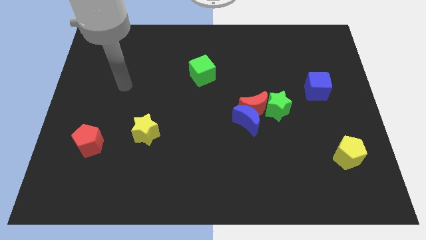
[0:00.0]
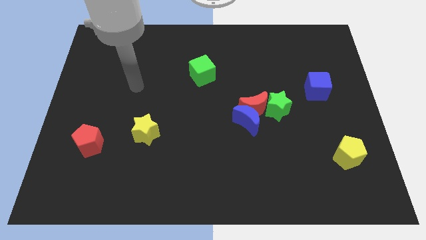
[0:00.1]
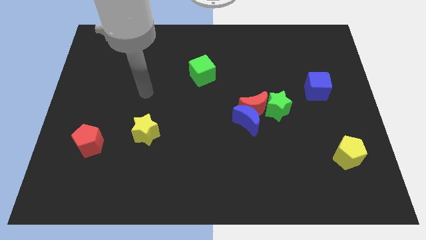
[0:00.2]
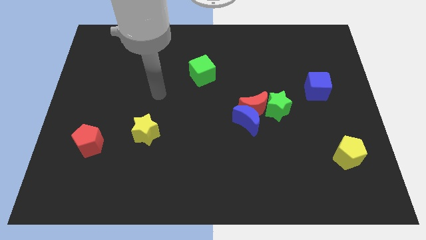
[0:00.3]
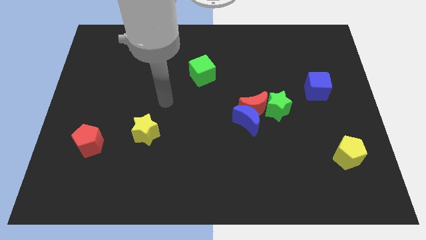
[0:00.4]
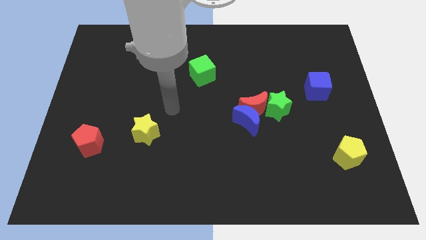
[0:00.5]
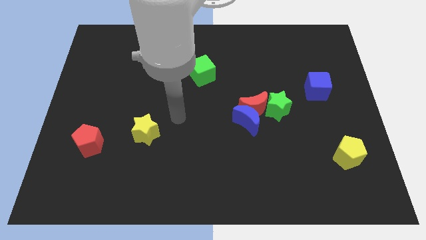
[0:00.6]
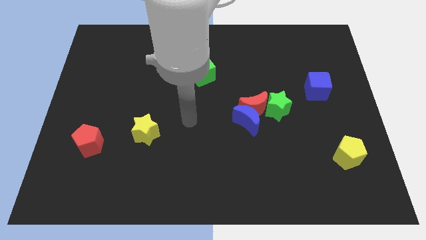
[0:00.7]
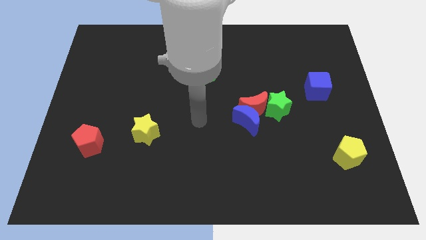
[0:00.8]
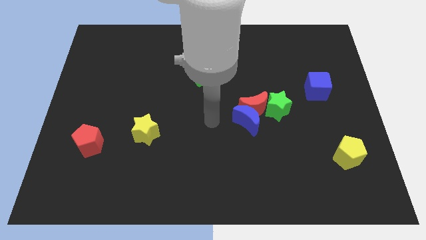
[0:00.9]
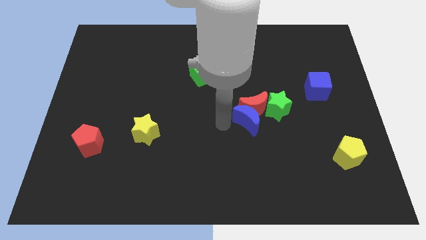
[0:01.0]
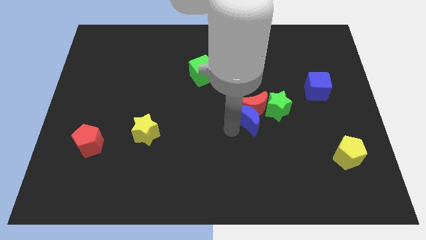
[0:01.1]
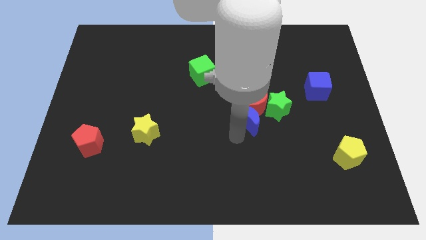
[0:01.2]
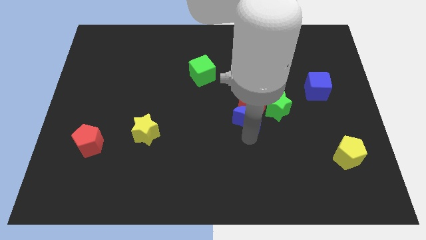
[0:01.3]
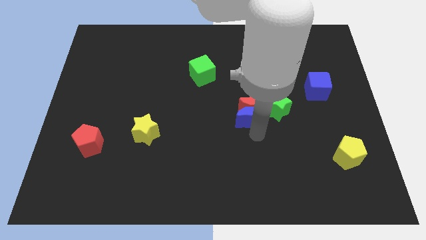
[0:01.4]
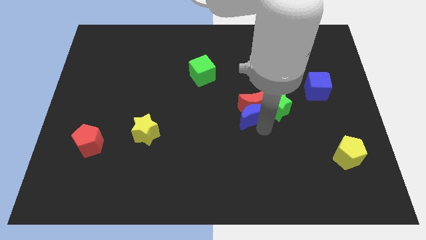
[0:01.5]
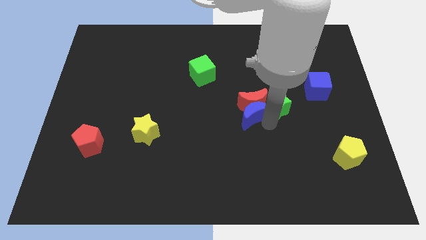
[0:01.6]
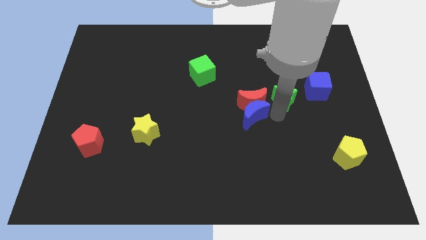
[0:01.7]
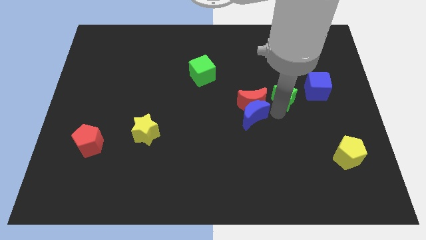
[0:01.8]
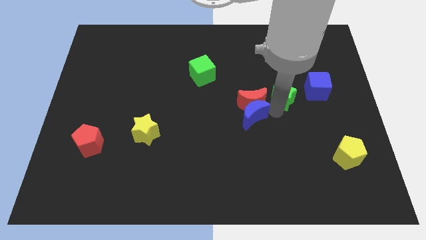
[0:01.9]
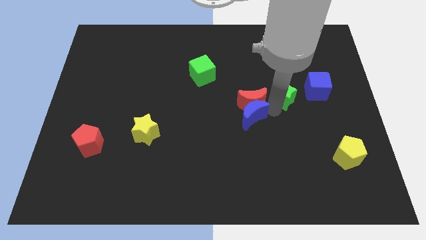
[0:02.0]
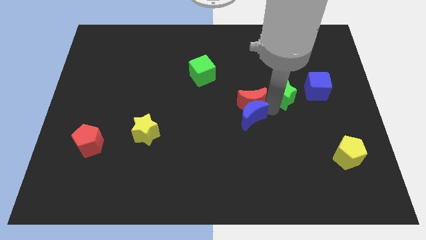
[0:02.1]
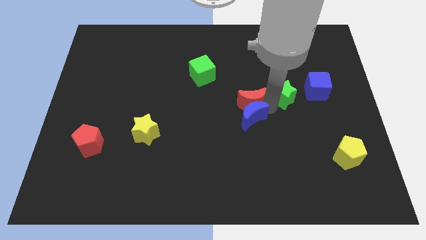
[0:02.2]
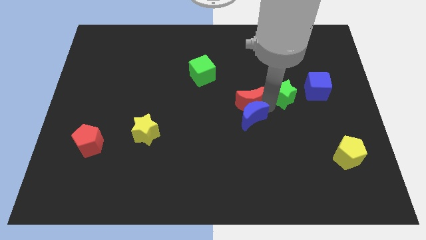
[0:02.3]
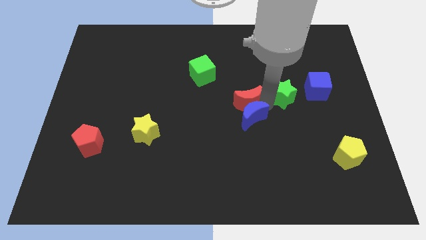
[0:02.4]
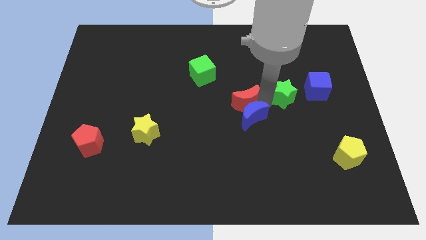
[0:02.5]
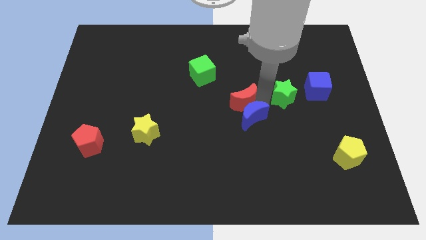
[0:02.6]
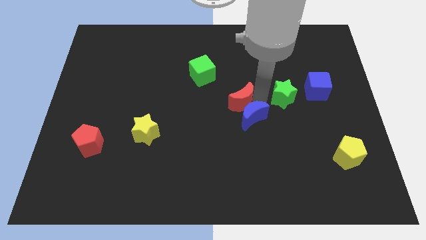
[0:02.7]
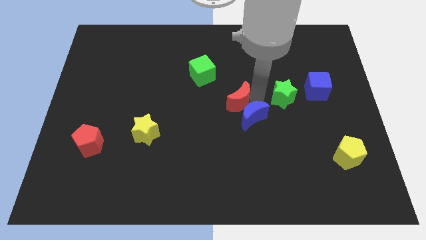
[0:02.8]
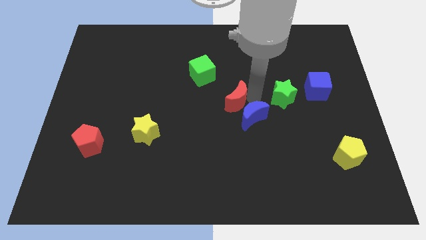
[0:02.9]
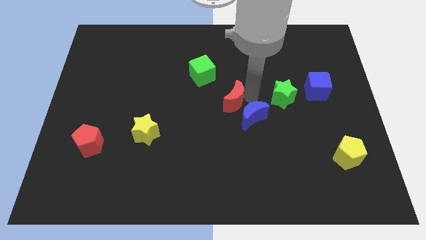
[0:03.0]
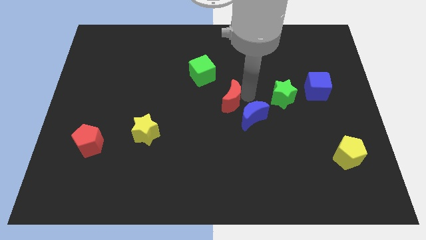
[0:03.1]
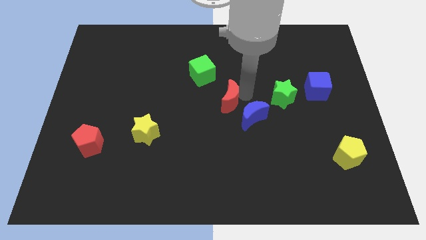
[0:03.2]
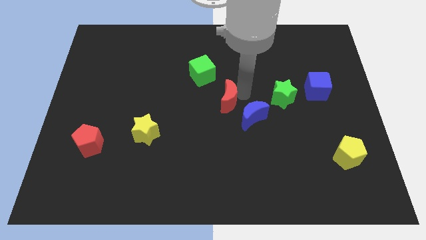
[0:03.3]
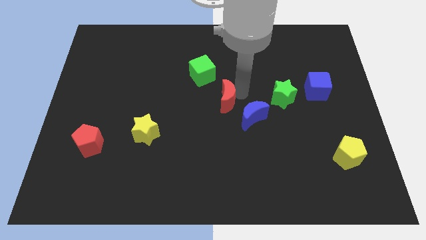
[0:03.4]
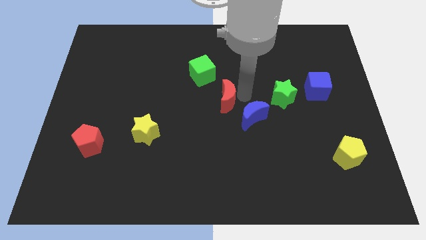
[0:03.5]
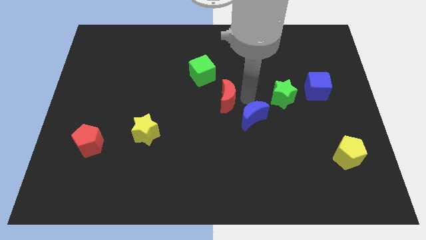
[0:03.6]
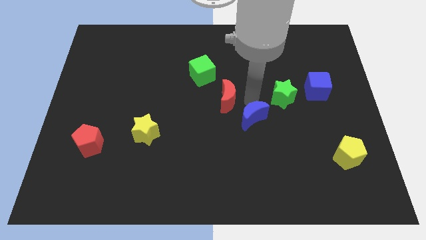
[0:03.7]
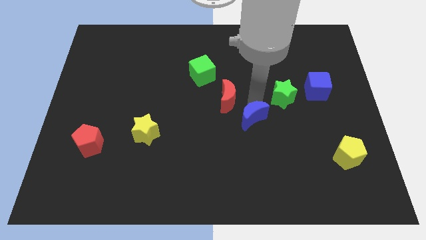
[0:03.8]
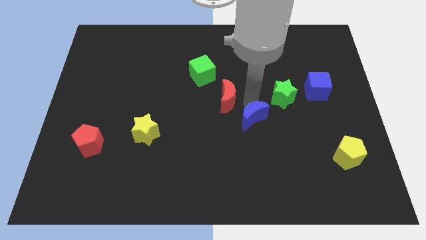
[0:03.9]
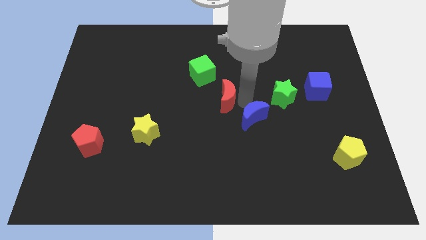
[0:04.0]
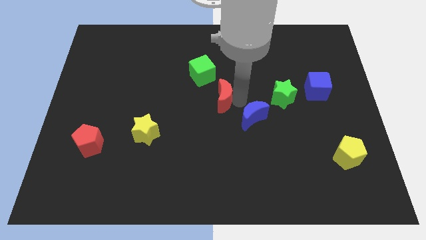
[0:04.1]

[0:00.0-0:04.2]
move the red moon away from the blue moon and green star

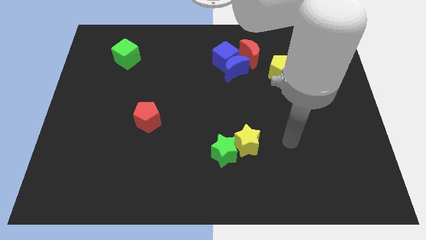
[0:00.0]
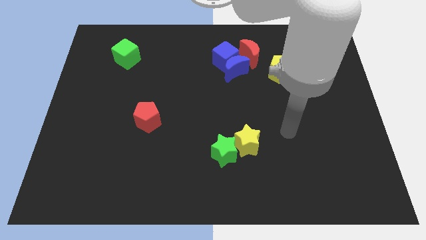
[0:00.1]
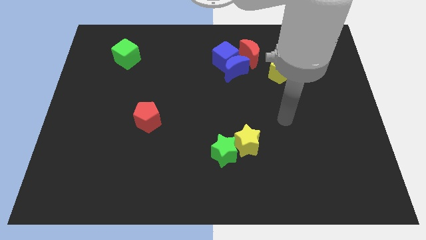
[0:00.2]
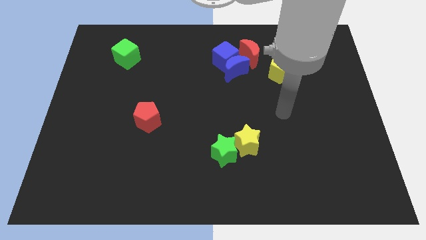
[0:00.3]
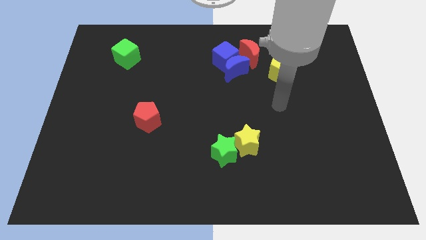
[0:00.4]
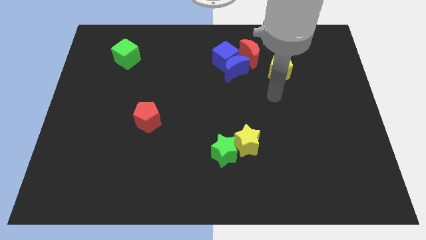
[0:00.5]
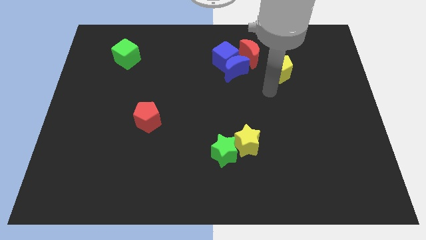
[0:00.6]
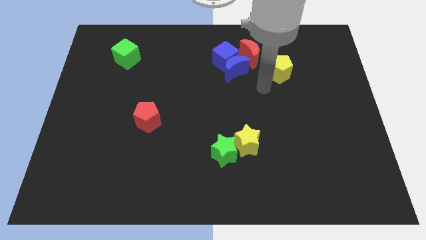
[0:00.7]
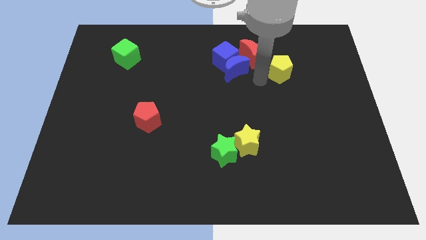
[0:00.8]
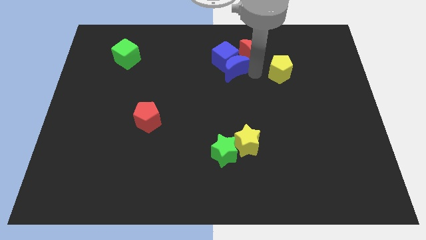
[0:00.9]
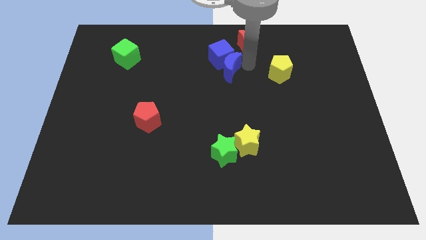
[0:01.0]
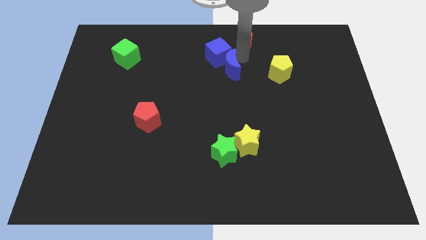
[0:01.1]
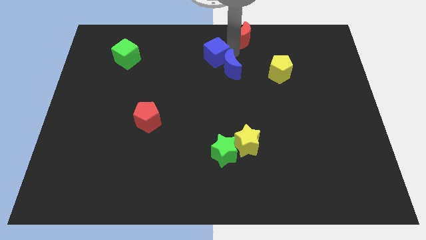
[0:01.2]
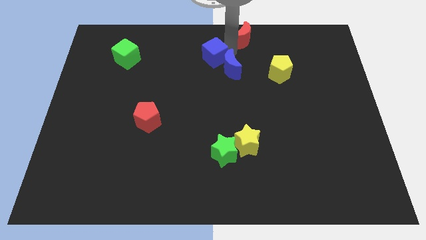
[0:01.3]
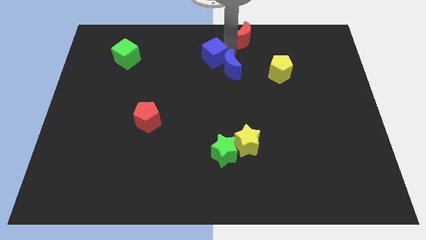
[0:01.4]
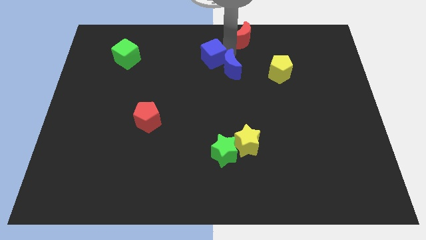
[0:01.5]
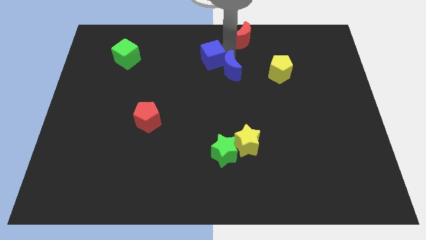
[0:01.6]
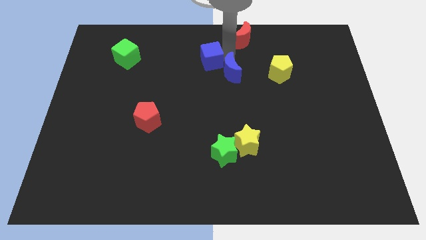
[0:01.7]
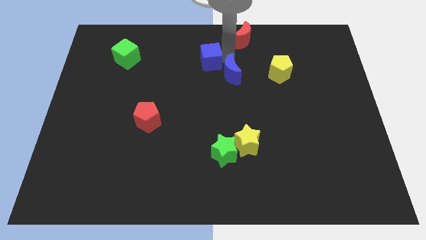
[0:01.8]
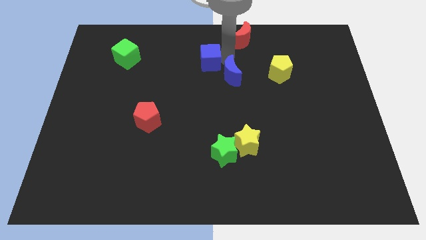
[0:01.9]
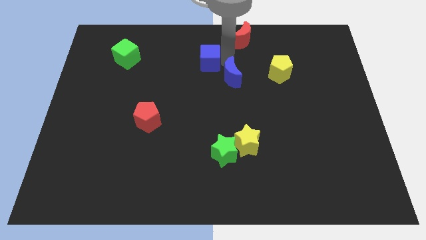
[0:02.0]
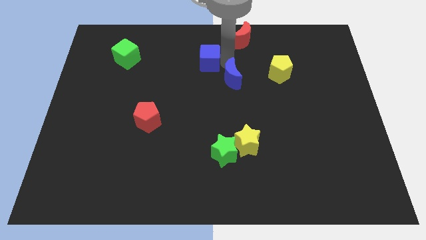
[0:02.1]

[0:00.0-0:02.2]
move the blue moon away from the blue cube and red moon

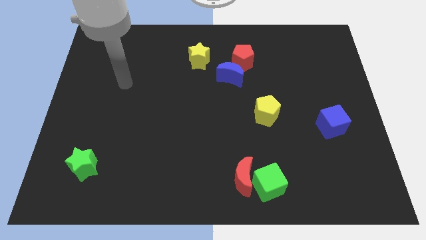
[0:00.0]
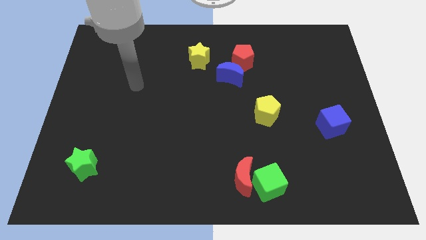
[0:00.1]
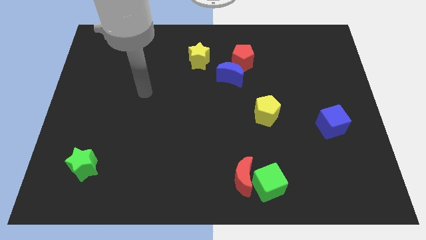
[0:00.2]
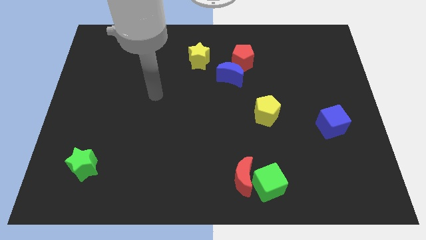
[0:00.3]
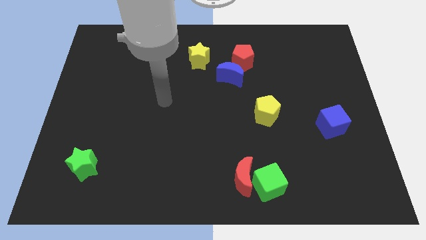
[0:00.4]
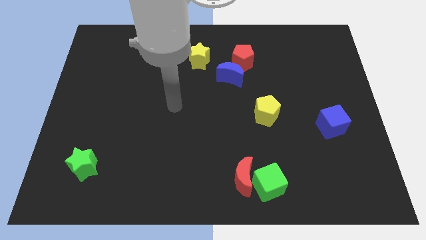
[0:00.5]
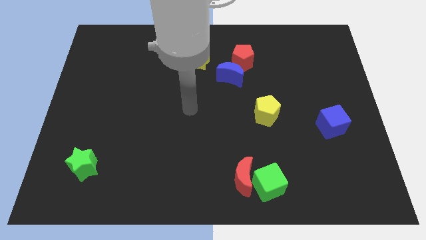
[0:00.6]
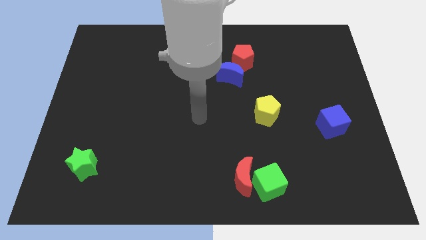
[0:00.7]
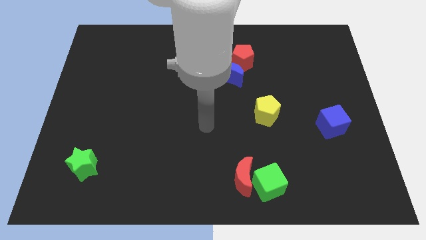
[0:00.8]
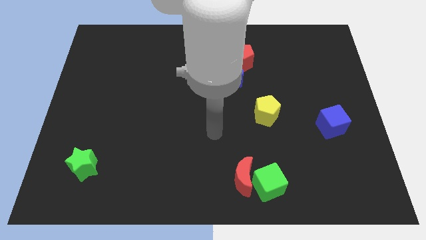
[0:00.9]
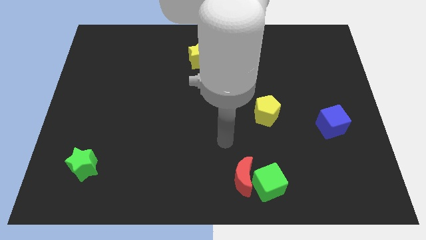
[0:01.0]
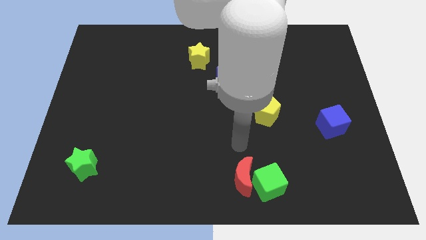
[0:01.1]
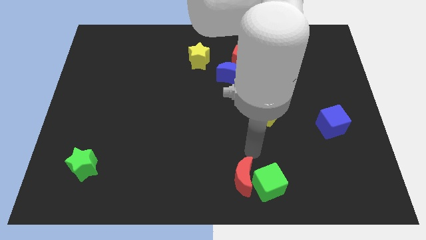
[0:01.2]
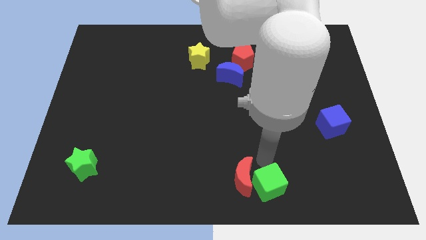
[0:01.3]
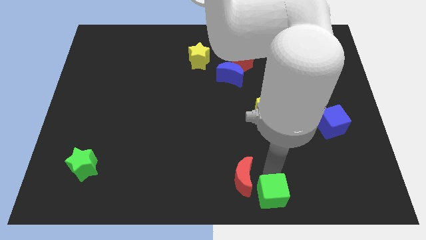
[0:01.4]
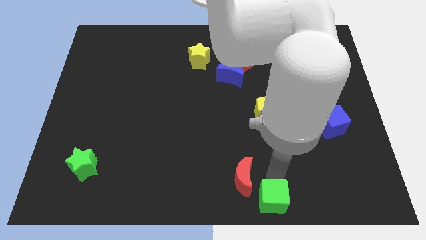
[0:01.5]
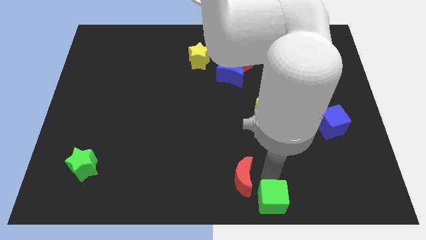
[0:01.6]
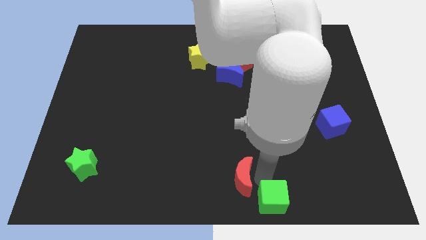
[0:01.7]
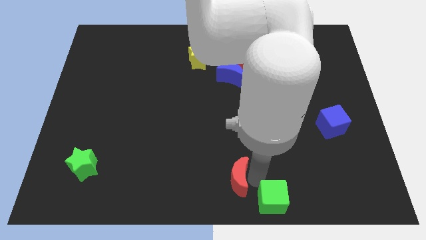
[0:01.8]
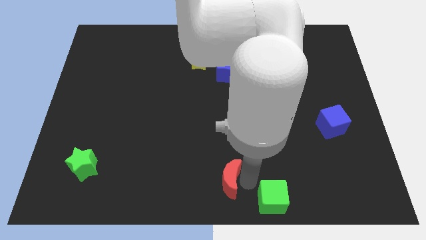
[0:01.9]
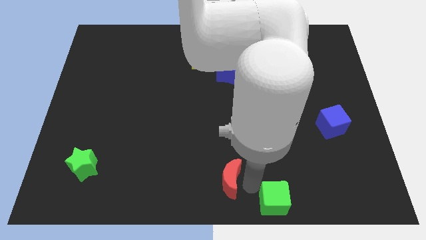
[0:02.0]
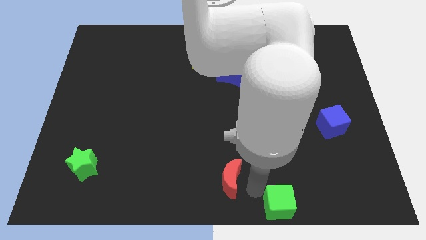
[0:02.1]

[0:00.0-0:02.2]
move the red moon away from the green cube

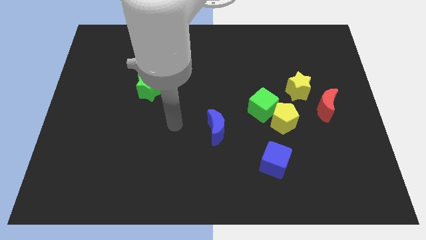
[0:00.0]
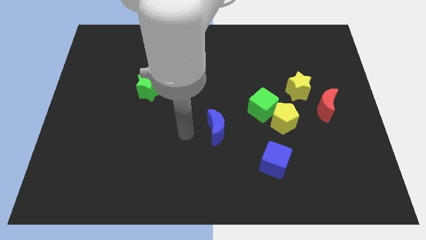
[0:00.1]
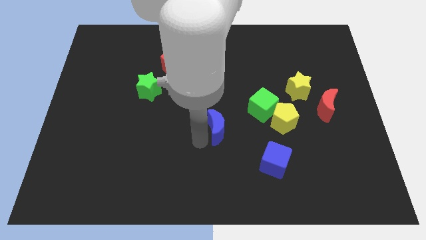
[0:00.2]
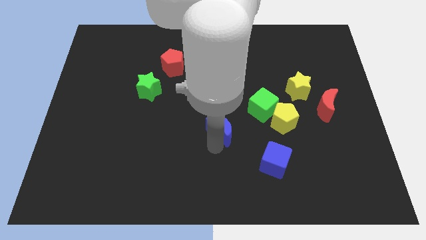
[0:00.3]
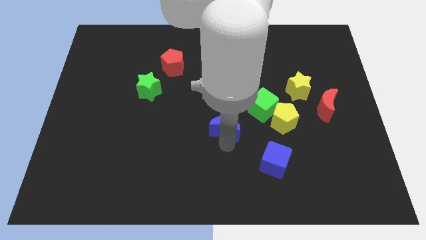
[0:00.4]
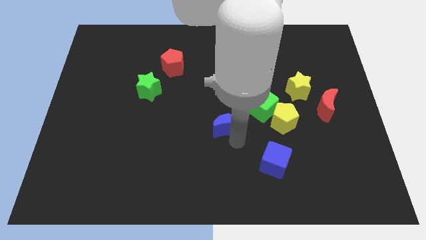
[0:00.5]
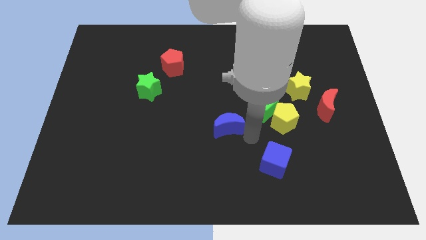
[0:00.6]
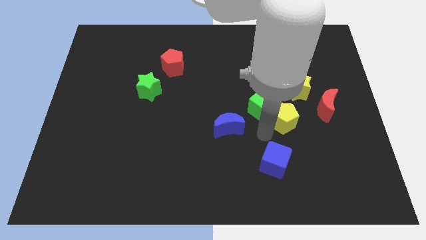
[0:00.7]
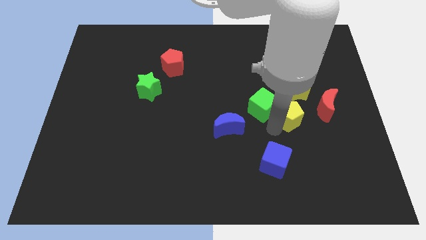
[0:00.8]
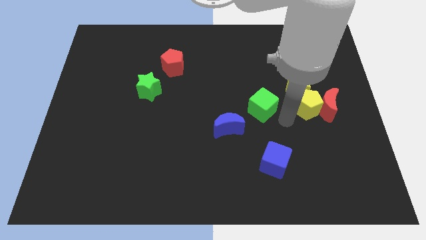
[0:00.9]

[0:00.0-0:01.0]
separate the green cube from the yellow pentagon
